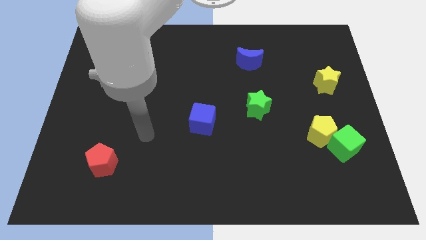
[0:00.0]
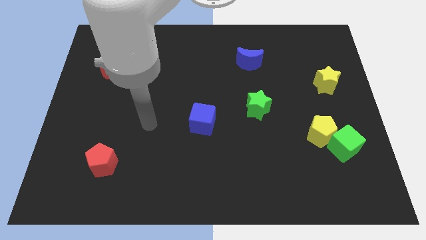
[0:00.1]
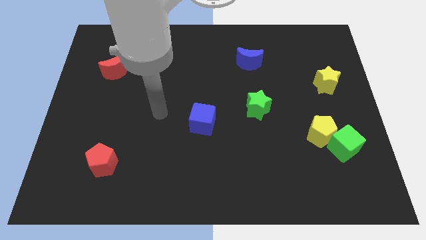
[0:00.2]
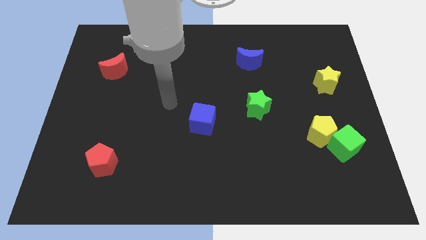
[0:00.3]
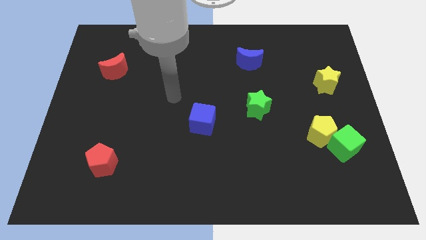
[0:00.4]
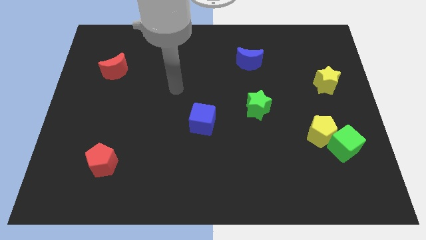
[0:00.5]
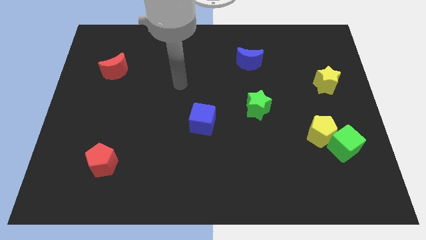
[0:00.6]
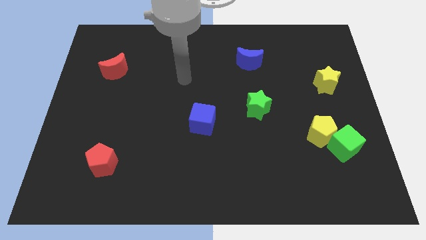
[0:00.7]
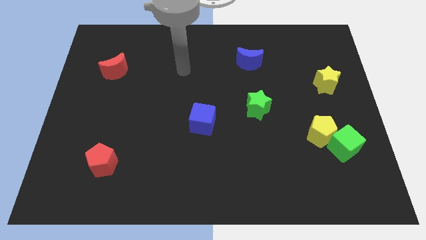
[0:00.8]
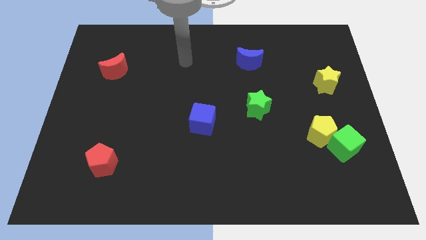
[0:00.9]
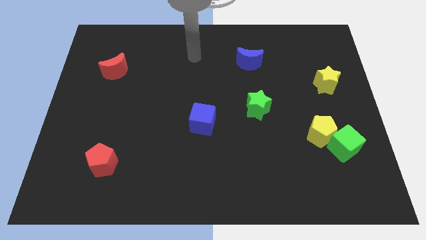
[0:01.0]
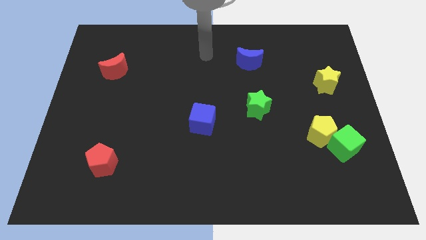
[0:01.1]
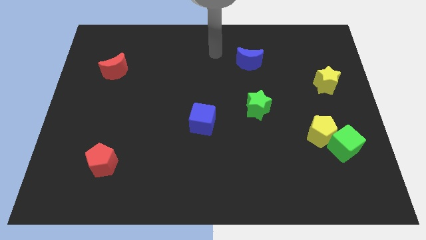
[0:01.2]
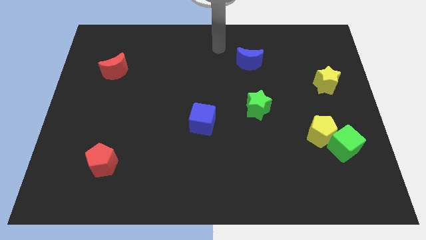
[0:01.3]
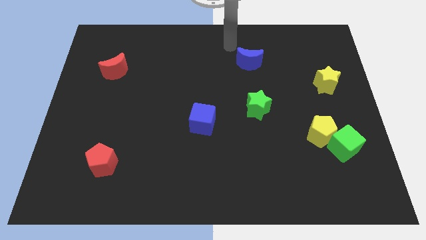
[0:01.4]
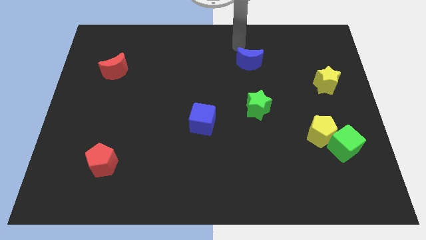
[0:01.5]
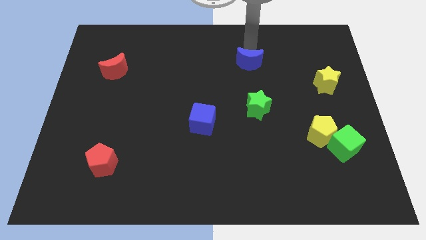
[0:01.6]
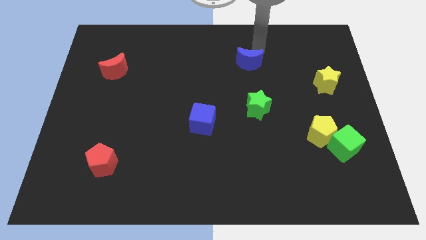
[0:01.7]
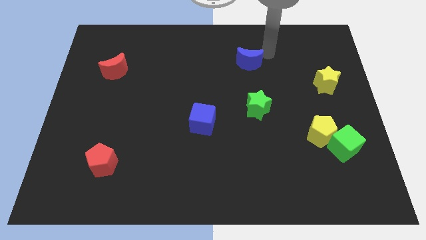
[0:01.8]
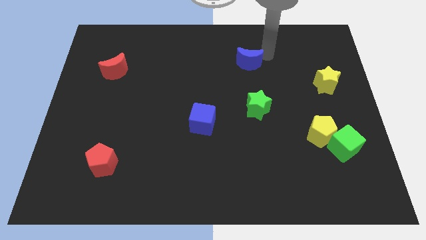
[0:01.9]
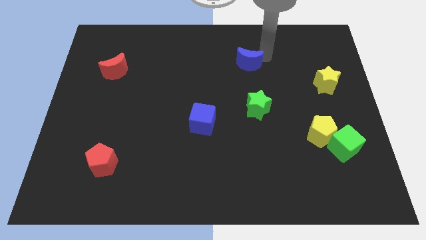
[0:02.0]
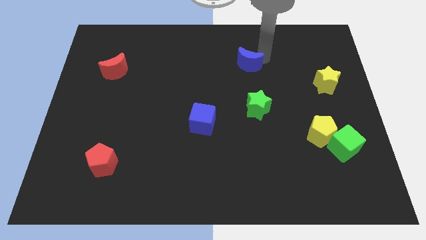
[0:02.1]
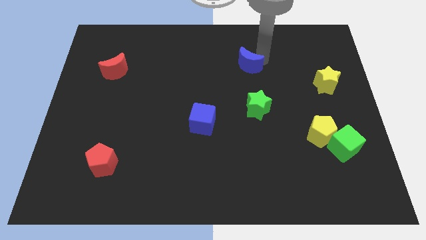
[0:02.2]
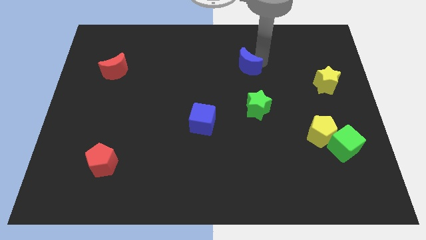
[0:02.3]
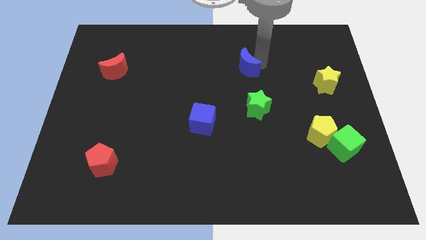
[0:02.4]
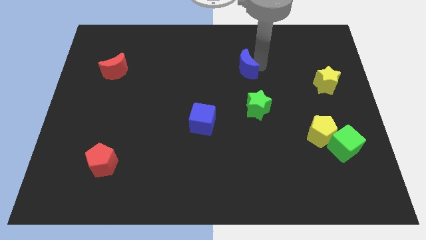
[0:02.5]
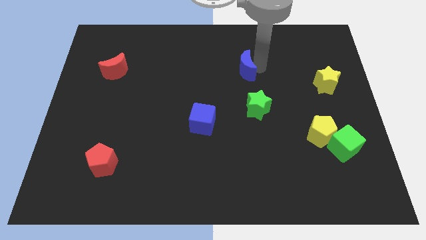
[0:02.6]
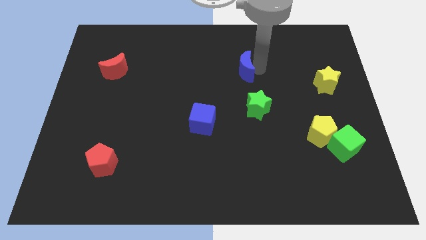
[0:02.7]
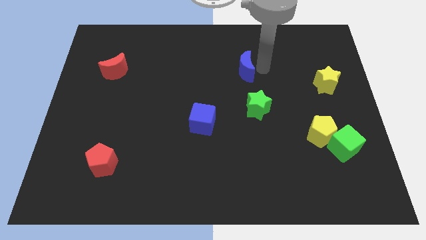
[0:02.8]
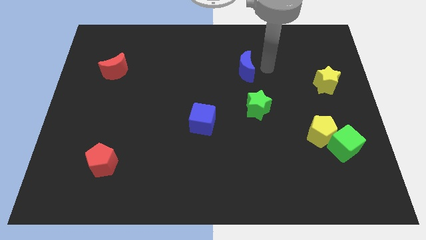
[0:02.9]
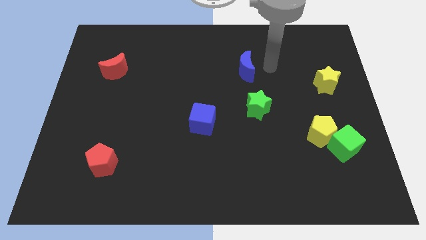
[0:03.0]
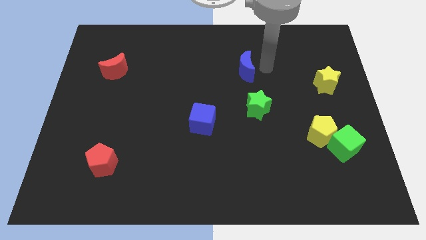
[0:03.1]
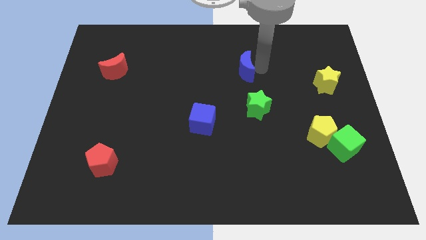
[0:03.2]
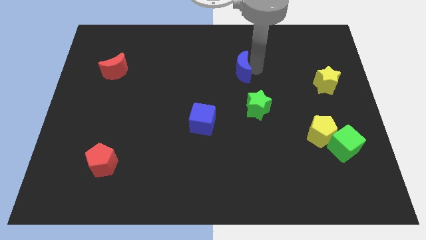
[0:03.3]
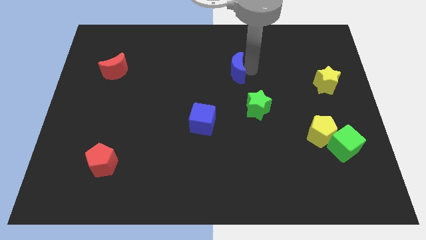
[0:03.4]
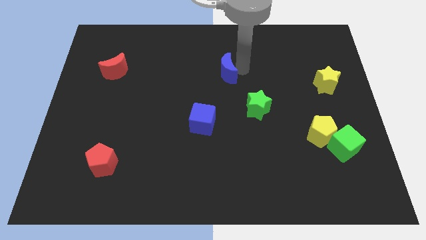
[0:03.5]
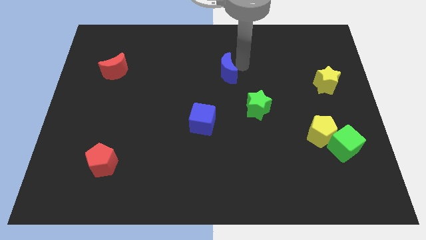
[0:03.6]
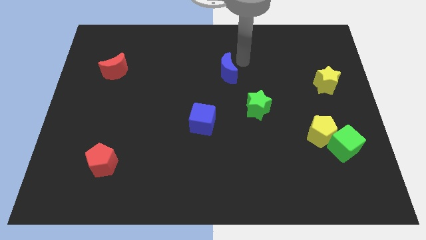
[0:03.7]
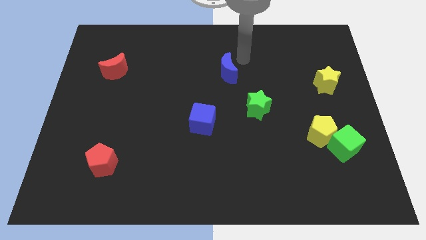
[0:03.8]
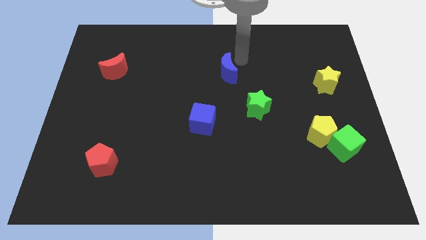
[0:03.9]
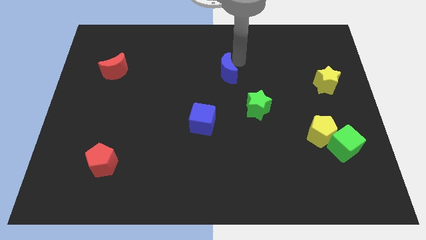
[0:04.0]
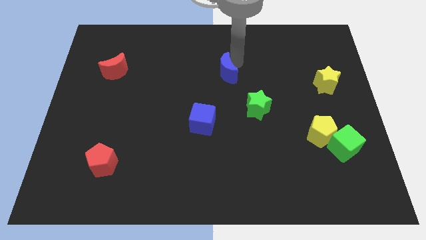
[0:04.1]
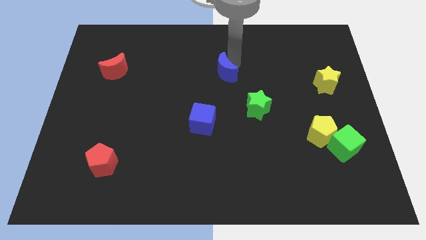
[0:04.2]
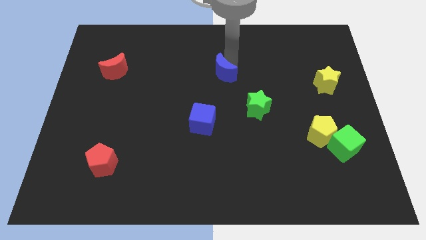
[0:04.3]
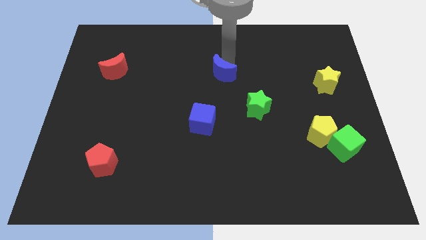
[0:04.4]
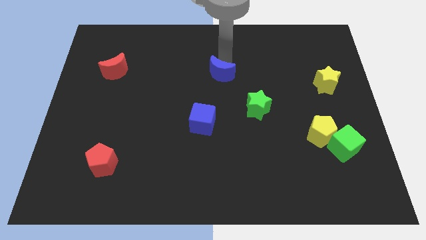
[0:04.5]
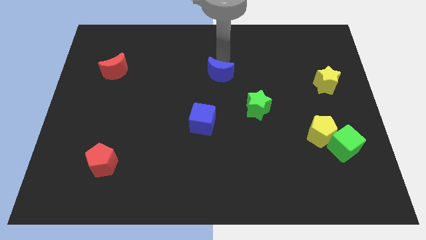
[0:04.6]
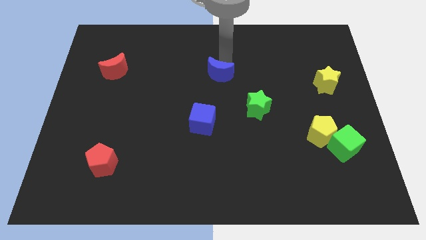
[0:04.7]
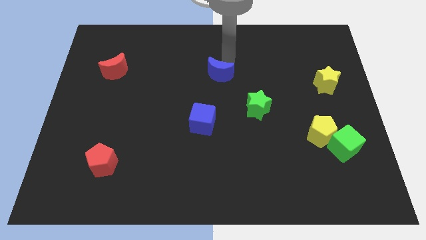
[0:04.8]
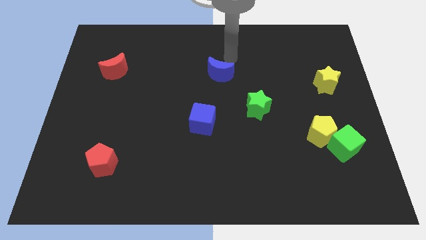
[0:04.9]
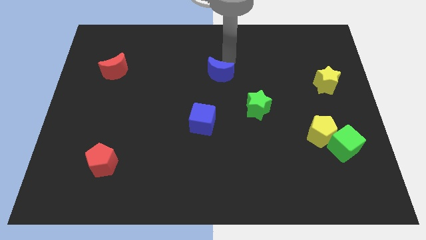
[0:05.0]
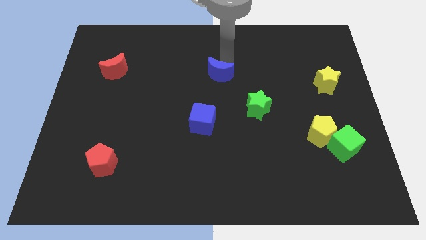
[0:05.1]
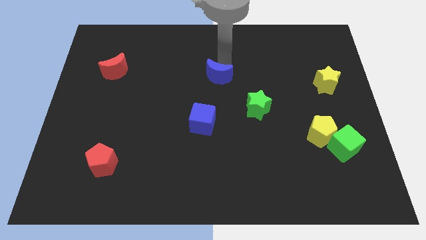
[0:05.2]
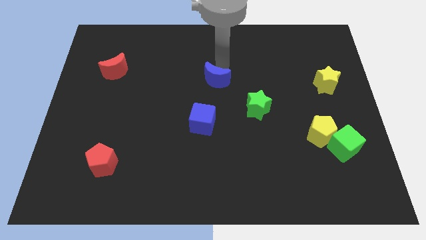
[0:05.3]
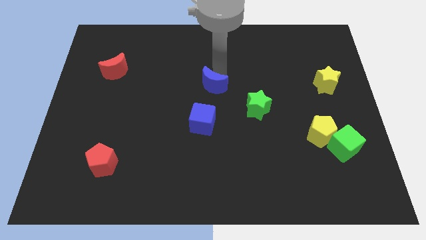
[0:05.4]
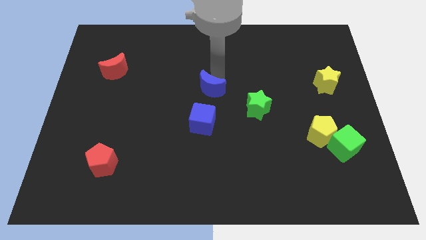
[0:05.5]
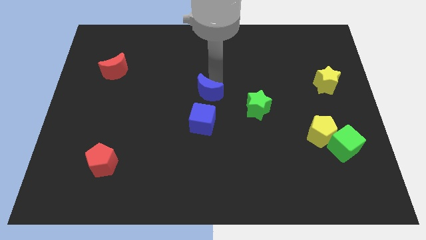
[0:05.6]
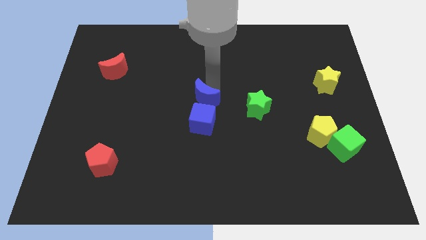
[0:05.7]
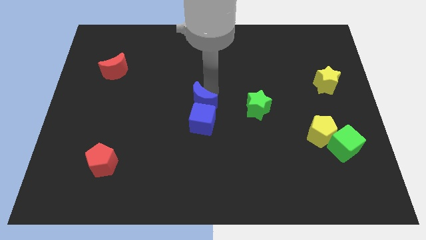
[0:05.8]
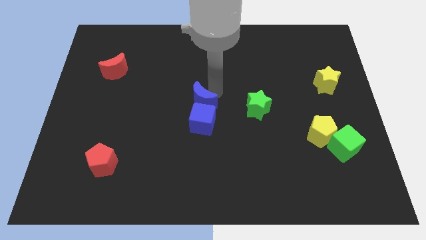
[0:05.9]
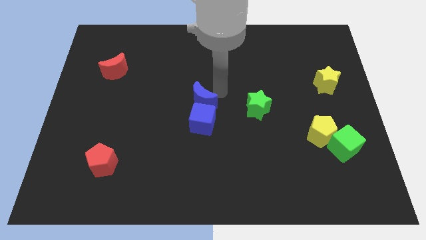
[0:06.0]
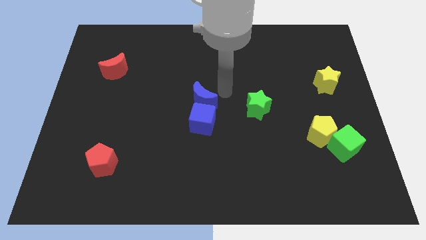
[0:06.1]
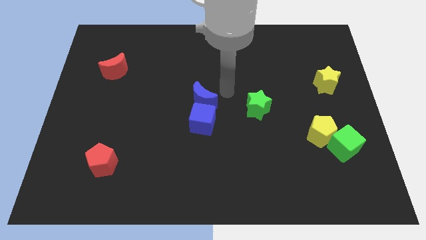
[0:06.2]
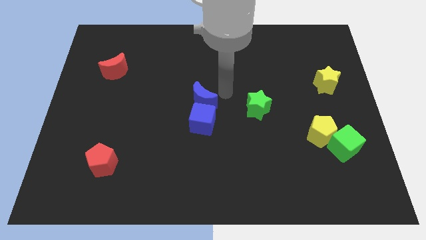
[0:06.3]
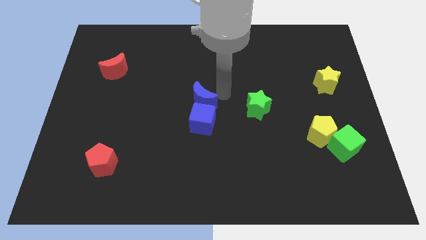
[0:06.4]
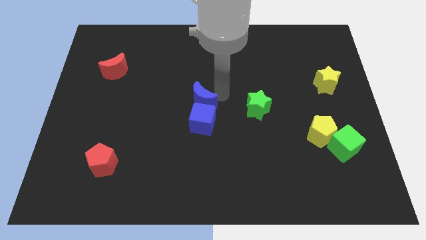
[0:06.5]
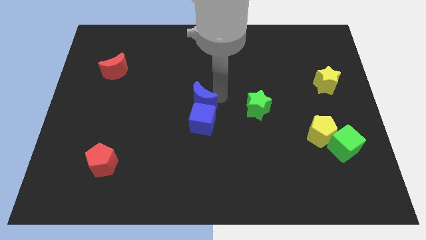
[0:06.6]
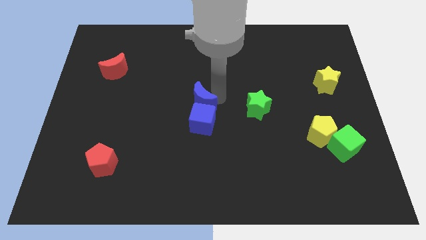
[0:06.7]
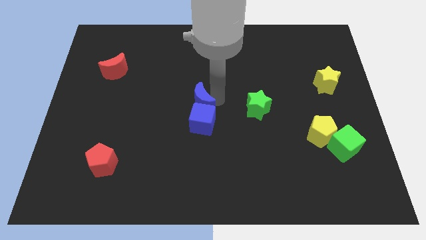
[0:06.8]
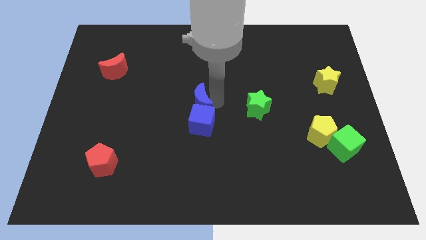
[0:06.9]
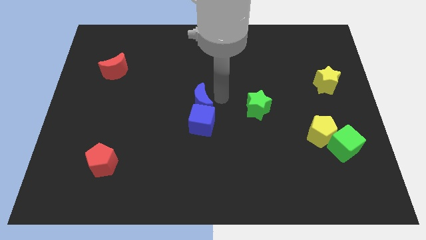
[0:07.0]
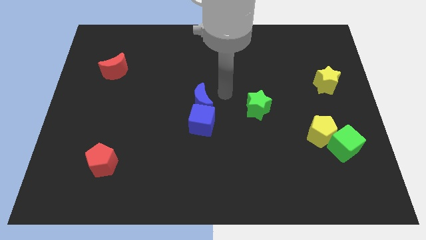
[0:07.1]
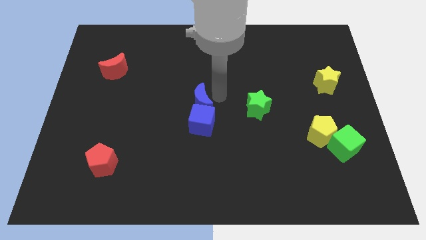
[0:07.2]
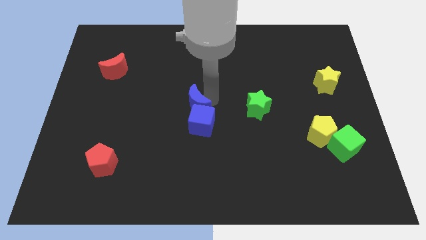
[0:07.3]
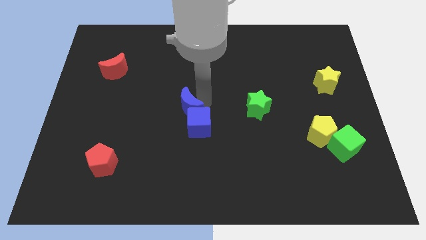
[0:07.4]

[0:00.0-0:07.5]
slide the blue moon downwards and then left

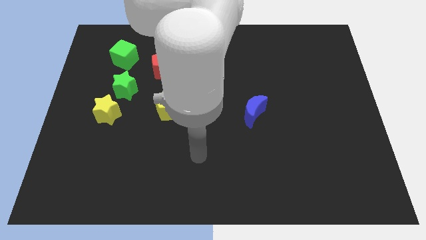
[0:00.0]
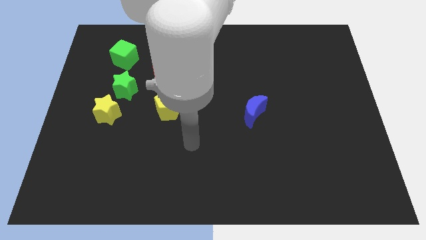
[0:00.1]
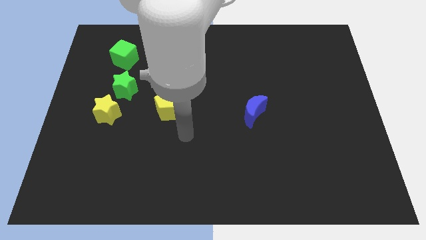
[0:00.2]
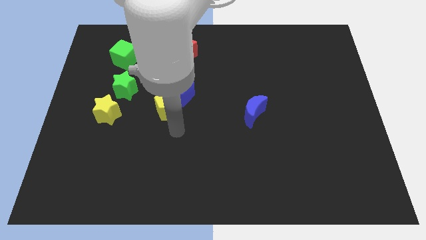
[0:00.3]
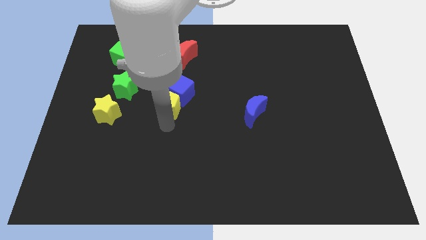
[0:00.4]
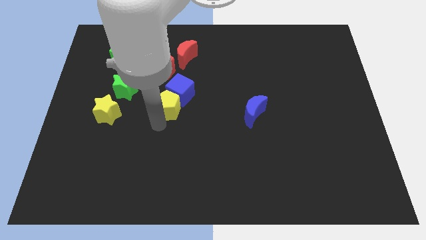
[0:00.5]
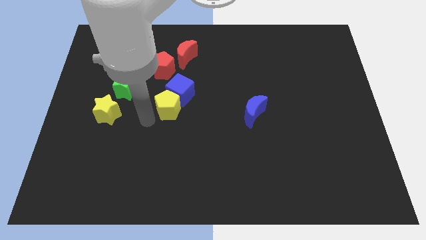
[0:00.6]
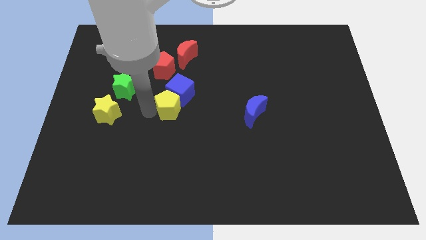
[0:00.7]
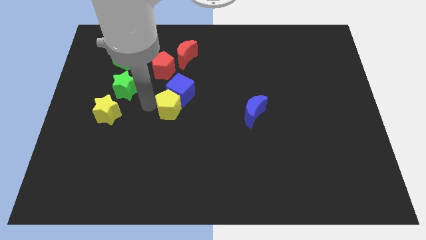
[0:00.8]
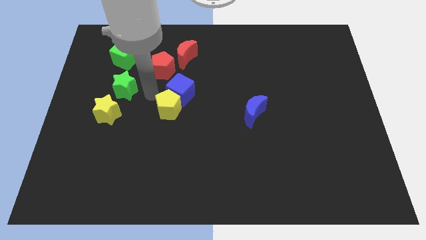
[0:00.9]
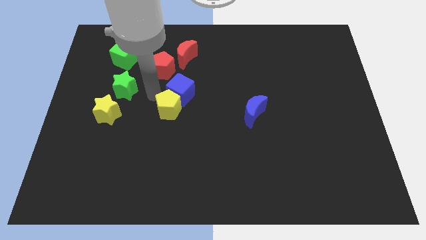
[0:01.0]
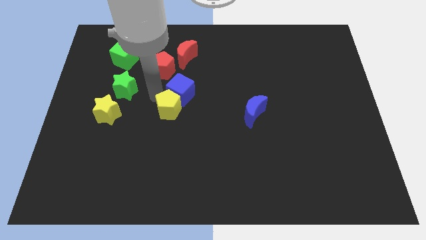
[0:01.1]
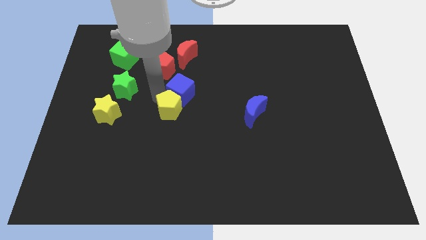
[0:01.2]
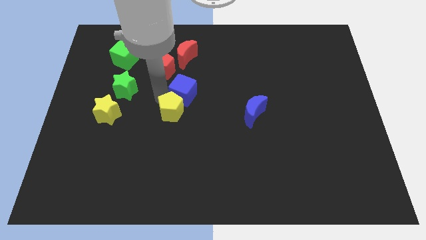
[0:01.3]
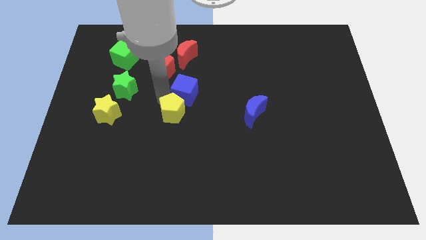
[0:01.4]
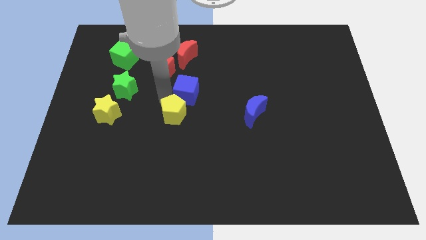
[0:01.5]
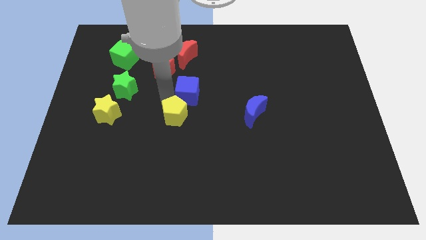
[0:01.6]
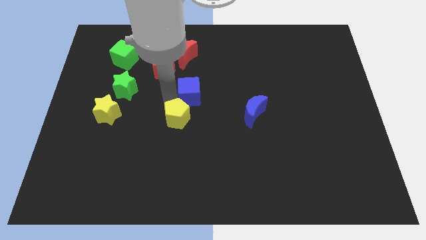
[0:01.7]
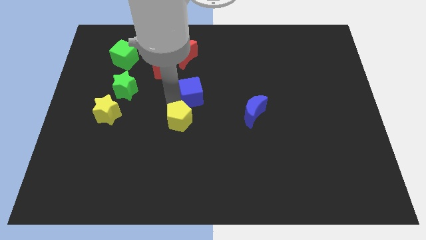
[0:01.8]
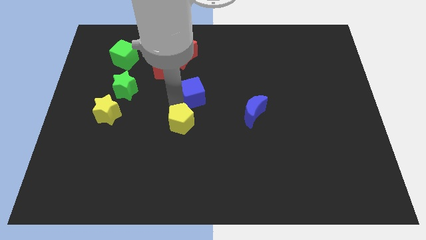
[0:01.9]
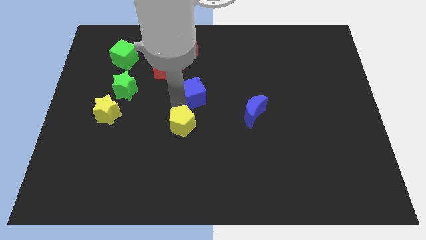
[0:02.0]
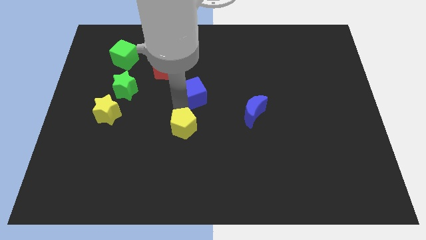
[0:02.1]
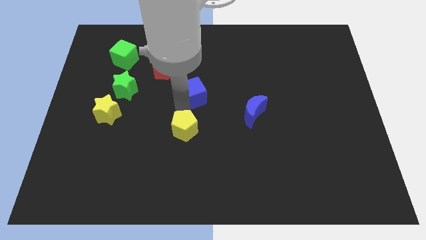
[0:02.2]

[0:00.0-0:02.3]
push the yellow pentagon a bit diagonally downwards and right
